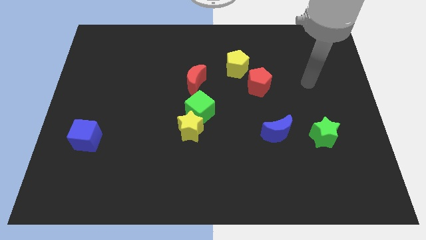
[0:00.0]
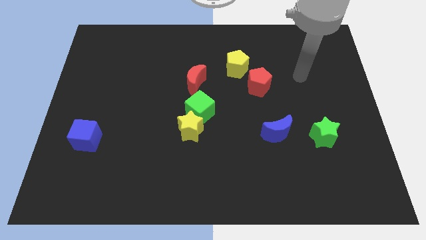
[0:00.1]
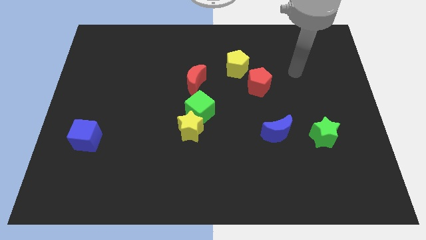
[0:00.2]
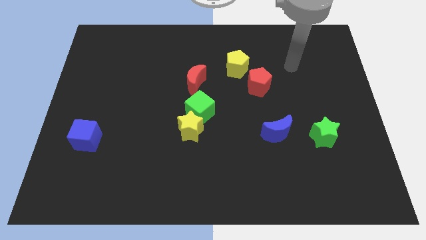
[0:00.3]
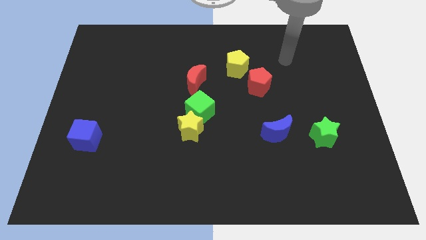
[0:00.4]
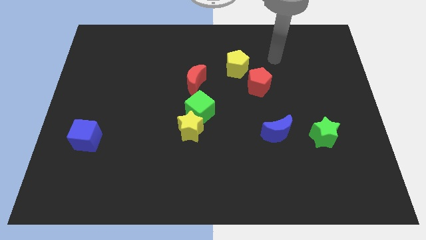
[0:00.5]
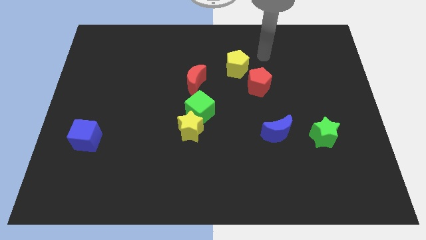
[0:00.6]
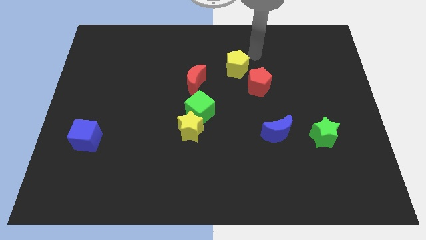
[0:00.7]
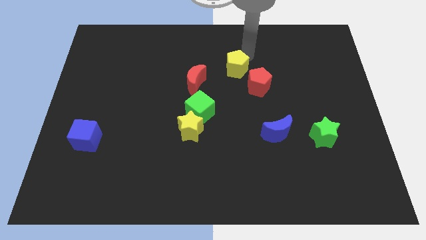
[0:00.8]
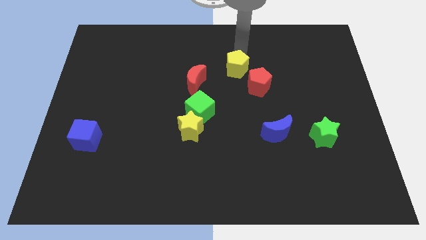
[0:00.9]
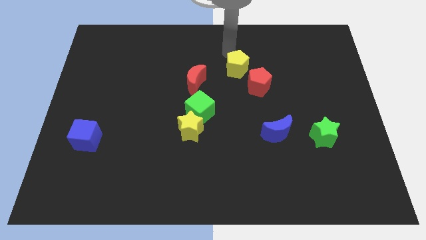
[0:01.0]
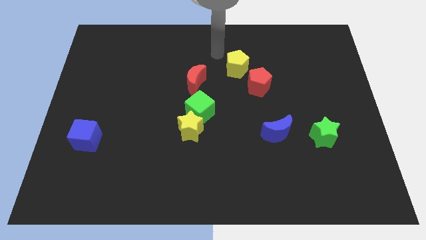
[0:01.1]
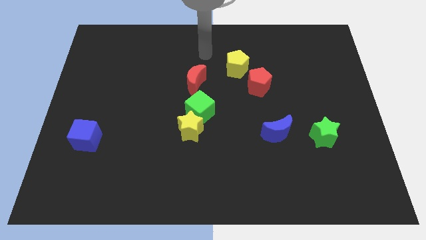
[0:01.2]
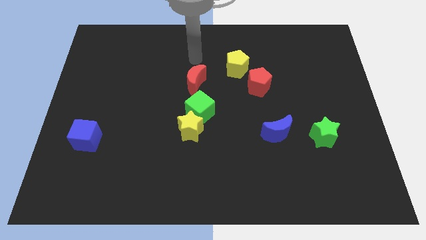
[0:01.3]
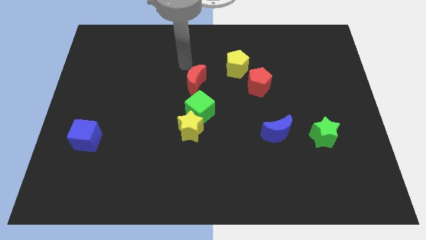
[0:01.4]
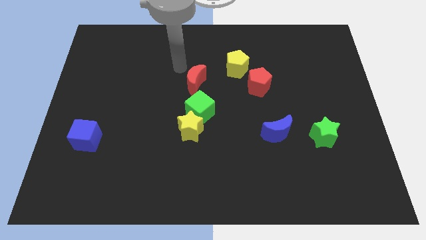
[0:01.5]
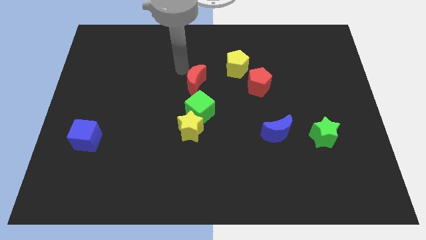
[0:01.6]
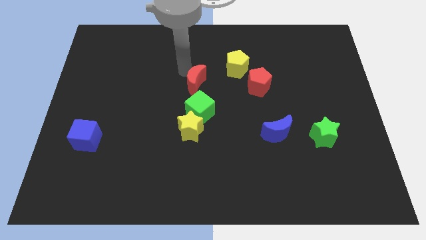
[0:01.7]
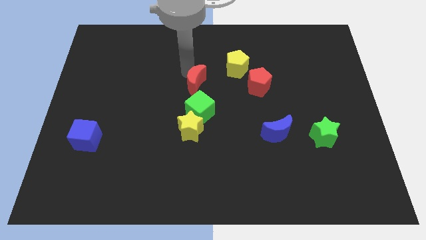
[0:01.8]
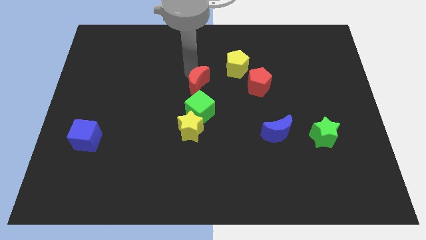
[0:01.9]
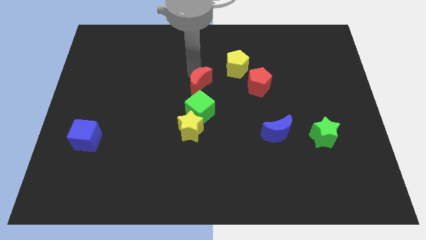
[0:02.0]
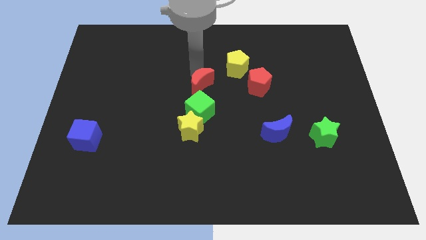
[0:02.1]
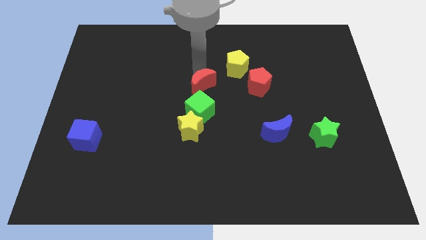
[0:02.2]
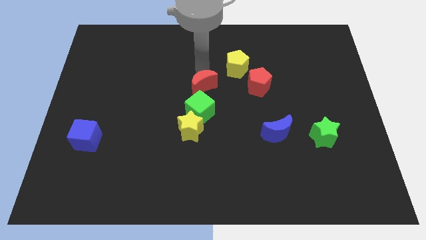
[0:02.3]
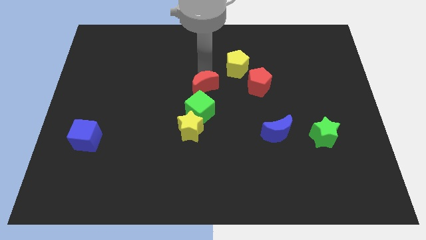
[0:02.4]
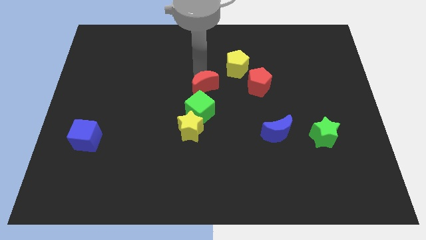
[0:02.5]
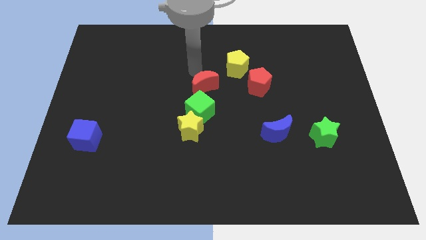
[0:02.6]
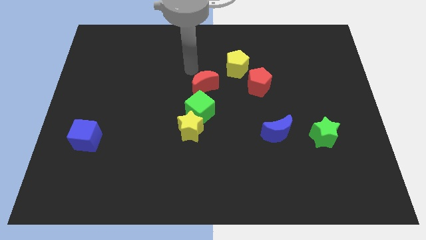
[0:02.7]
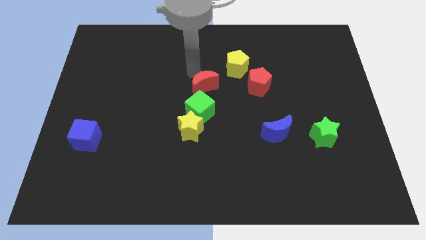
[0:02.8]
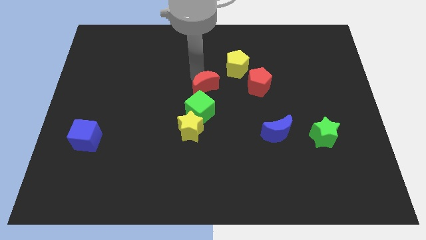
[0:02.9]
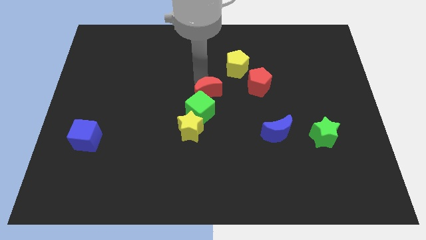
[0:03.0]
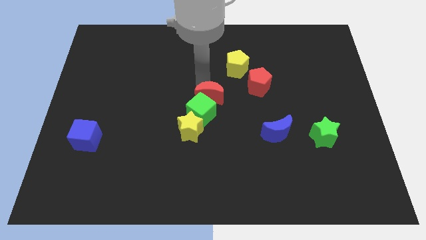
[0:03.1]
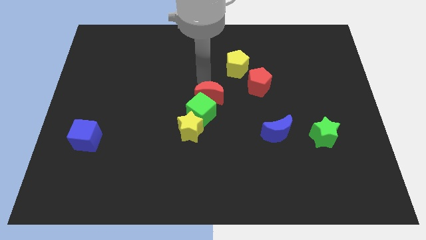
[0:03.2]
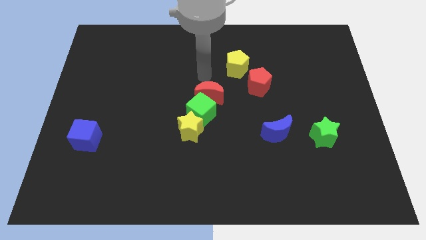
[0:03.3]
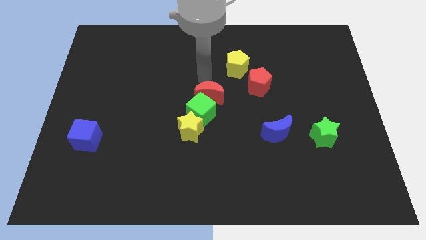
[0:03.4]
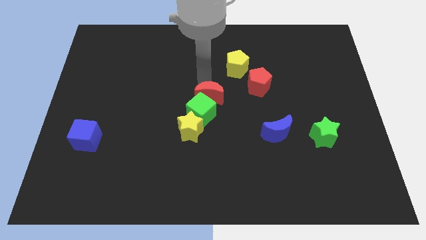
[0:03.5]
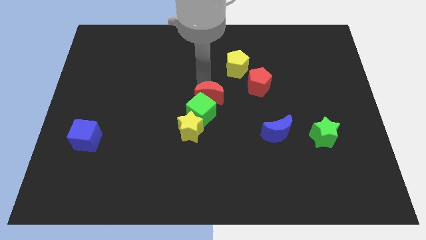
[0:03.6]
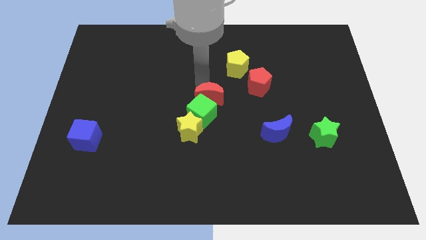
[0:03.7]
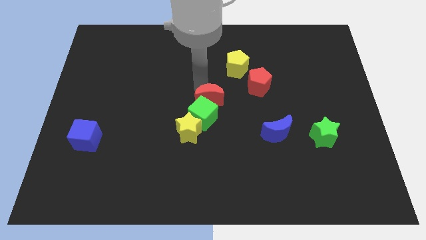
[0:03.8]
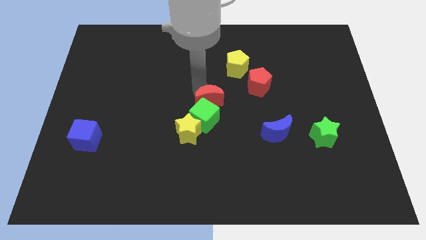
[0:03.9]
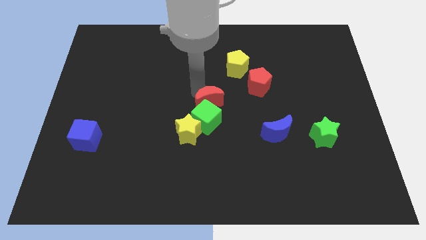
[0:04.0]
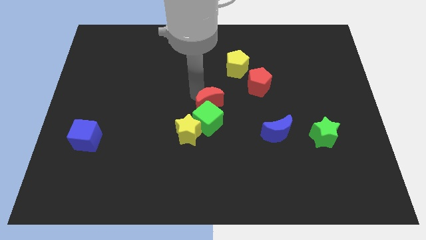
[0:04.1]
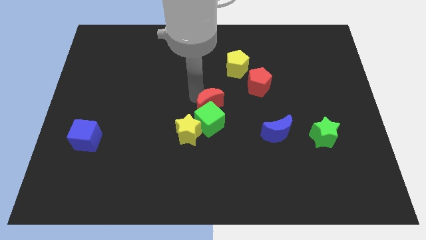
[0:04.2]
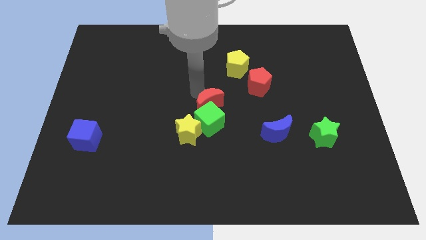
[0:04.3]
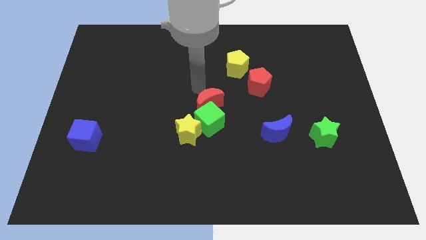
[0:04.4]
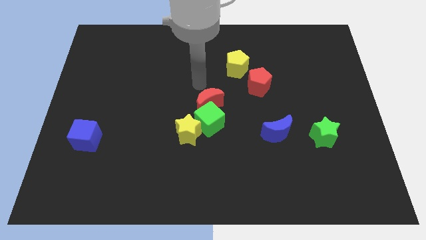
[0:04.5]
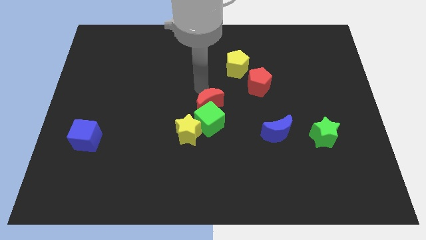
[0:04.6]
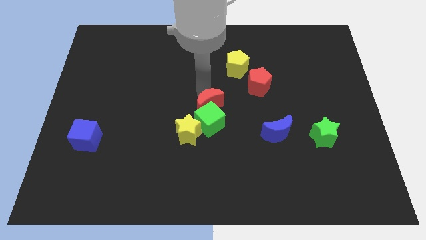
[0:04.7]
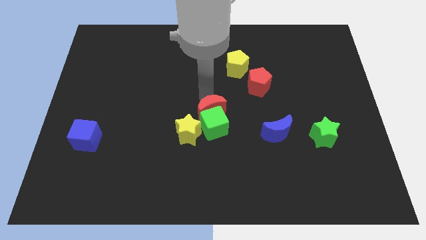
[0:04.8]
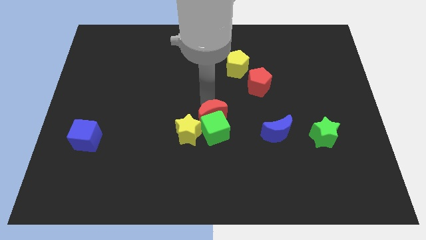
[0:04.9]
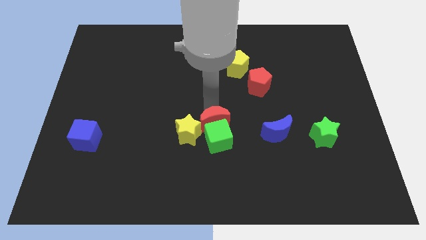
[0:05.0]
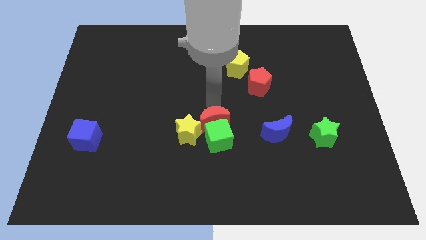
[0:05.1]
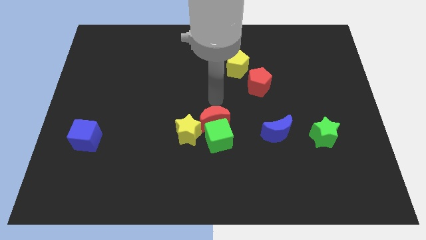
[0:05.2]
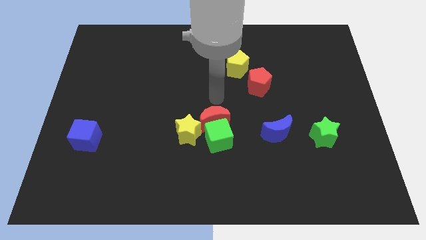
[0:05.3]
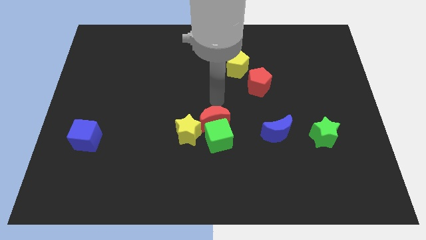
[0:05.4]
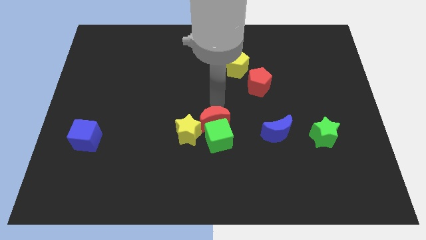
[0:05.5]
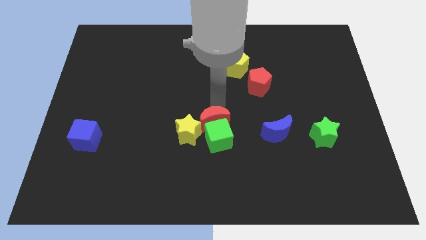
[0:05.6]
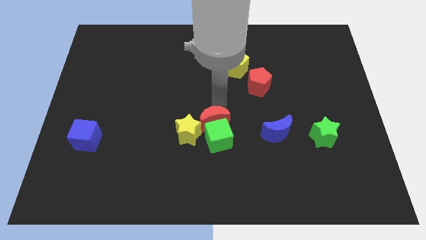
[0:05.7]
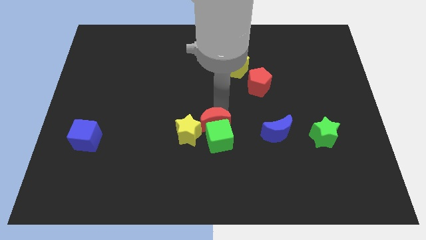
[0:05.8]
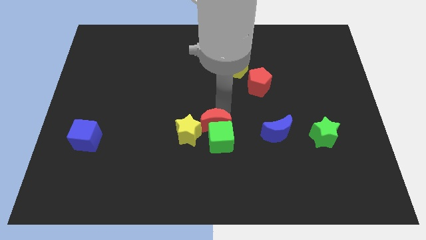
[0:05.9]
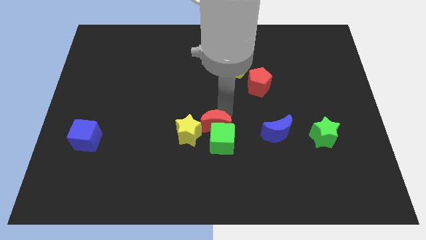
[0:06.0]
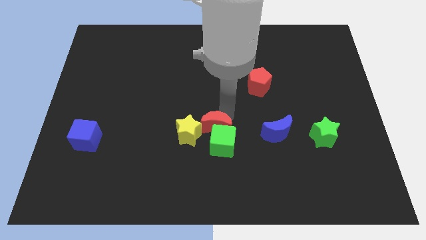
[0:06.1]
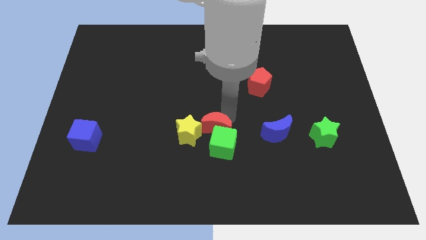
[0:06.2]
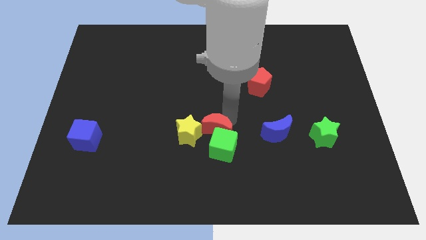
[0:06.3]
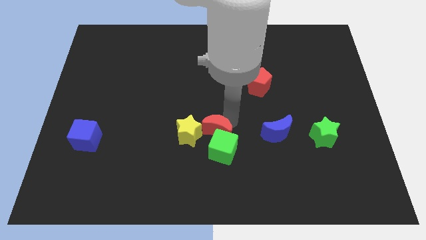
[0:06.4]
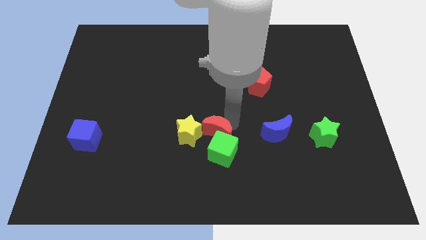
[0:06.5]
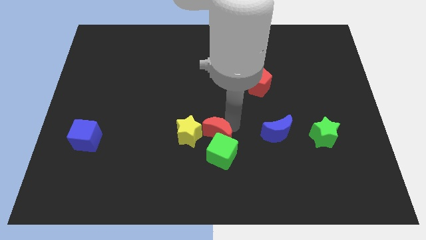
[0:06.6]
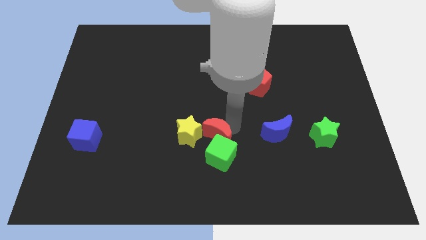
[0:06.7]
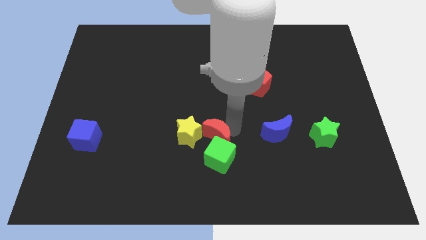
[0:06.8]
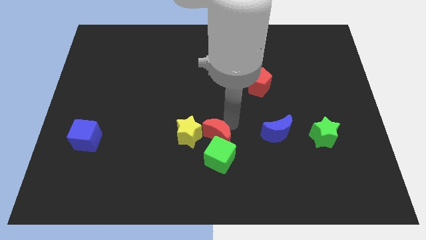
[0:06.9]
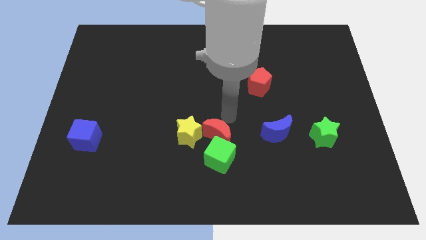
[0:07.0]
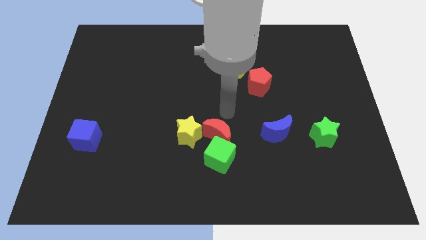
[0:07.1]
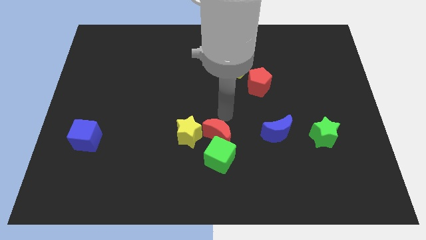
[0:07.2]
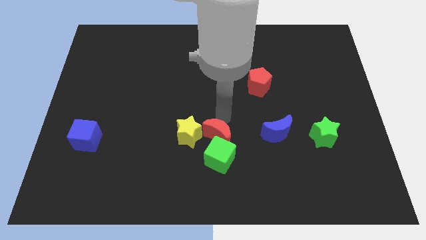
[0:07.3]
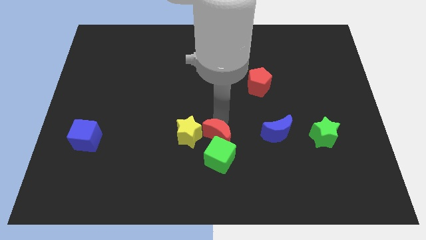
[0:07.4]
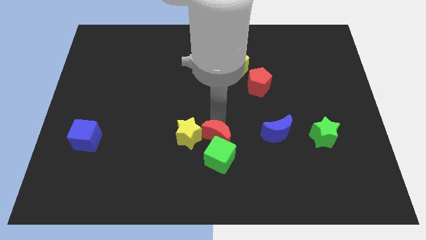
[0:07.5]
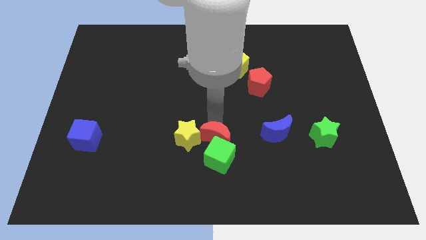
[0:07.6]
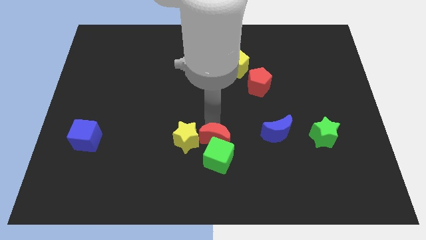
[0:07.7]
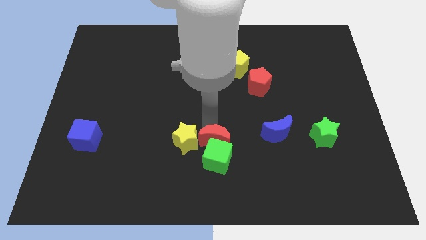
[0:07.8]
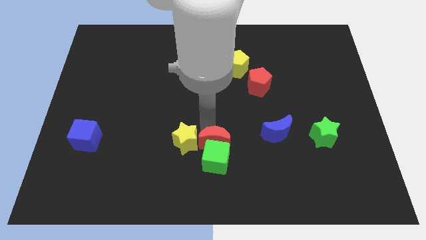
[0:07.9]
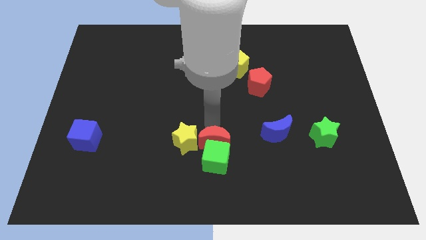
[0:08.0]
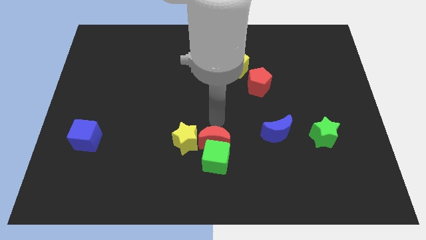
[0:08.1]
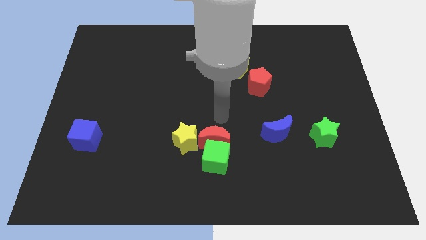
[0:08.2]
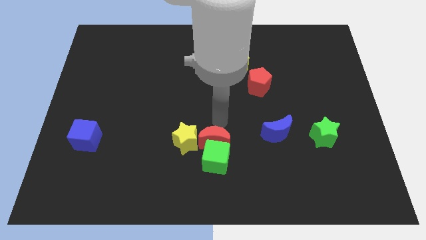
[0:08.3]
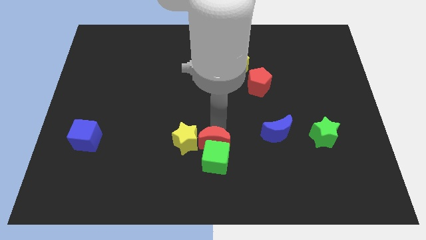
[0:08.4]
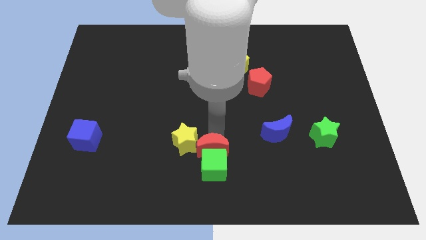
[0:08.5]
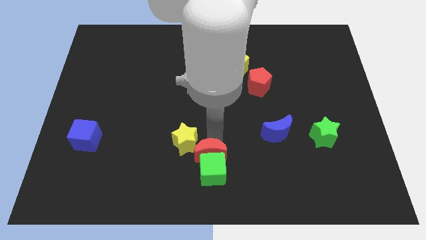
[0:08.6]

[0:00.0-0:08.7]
put the red moon to the bottom side
